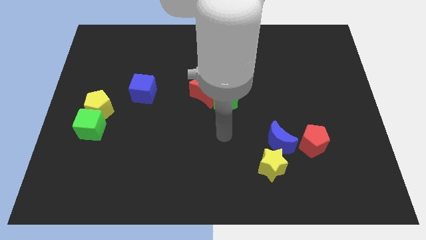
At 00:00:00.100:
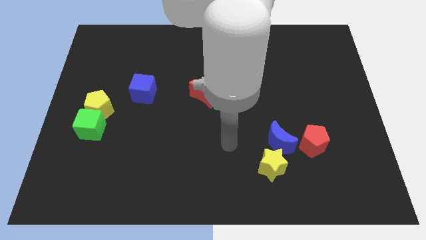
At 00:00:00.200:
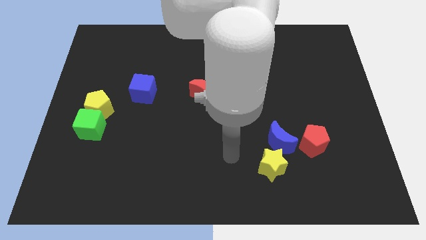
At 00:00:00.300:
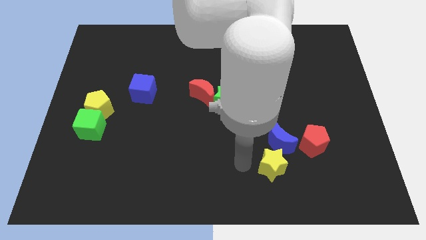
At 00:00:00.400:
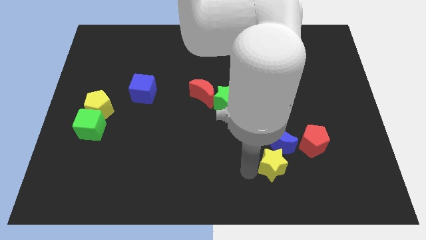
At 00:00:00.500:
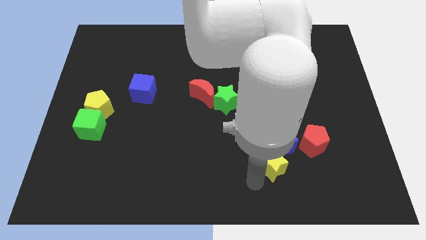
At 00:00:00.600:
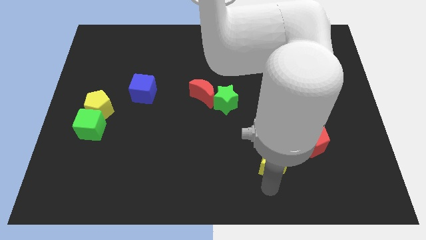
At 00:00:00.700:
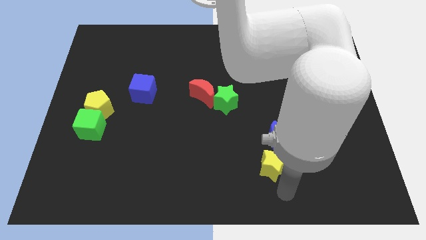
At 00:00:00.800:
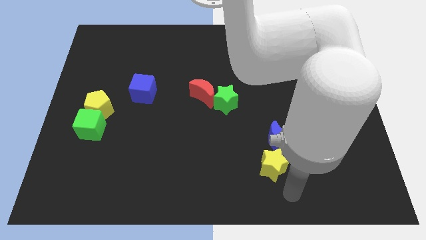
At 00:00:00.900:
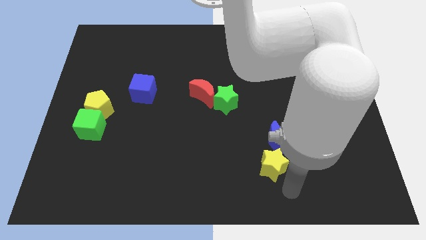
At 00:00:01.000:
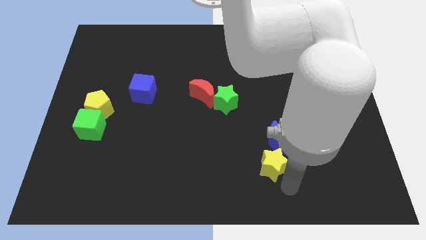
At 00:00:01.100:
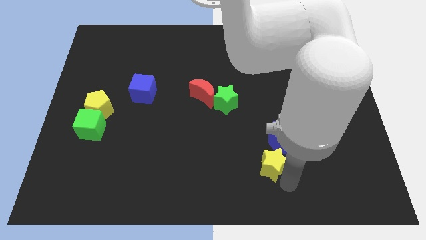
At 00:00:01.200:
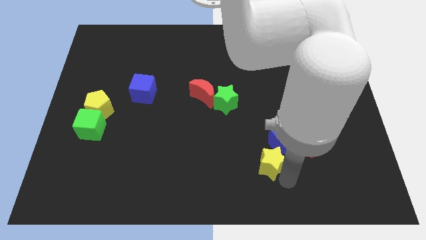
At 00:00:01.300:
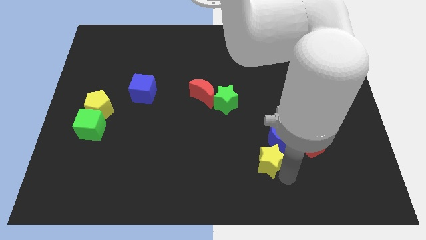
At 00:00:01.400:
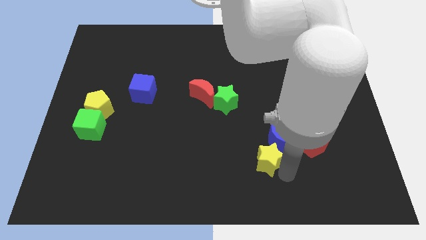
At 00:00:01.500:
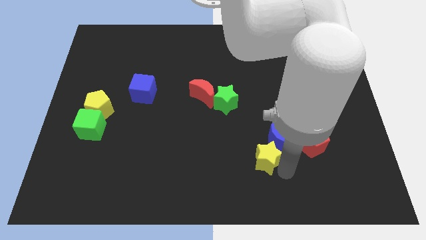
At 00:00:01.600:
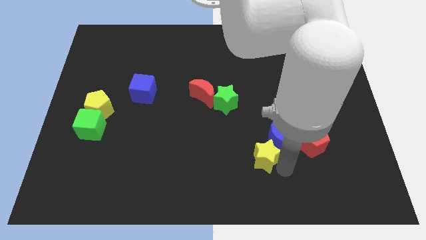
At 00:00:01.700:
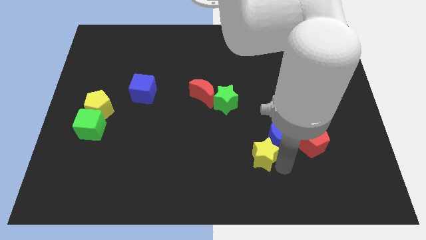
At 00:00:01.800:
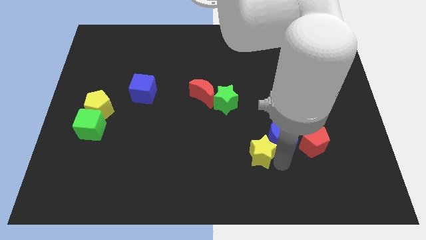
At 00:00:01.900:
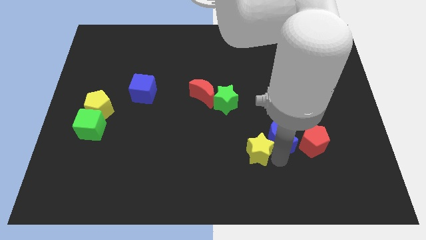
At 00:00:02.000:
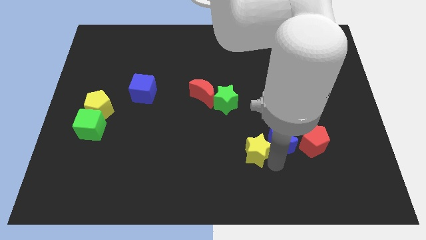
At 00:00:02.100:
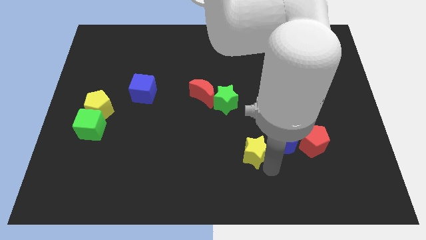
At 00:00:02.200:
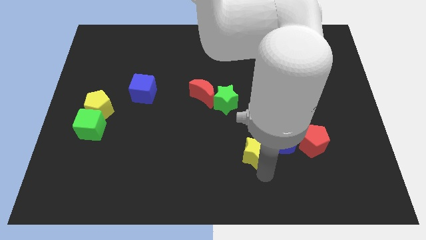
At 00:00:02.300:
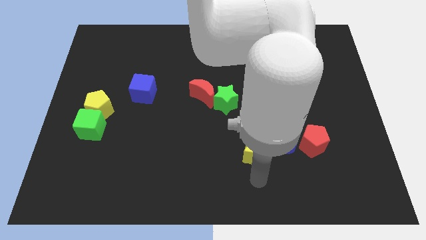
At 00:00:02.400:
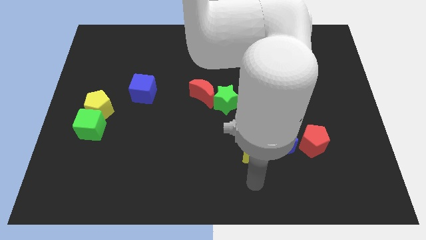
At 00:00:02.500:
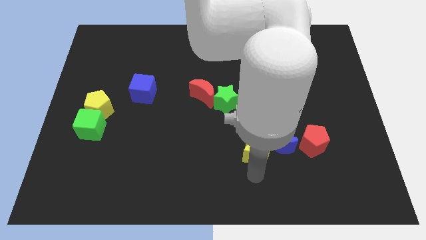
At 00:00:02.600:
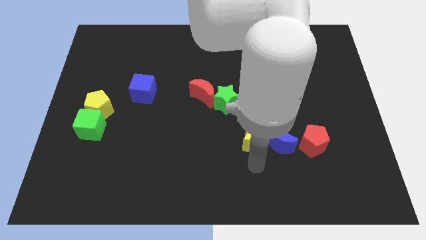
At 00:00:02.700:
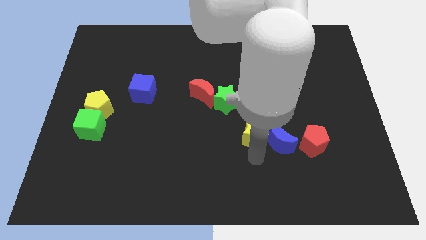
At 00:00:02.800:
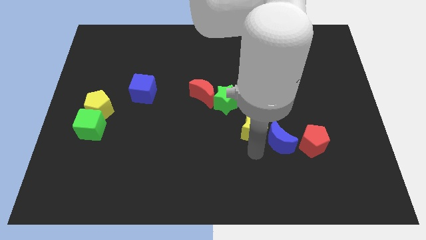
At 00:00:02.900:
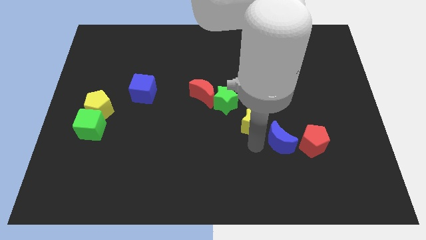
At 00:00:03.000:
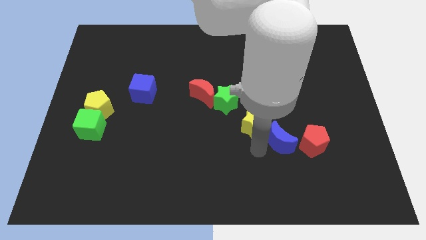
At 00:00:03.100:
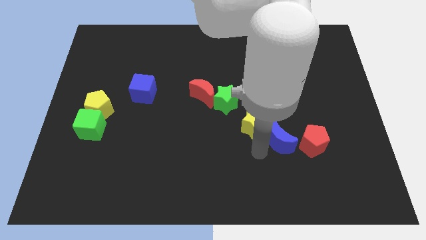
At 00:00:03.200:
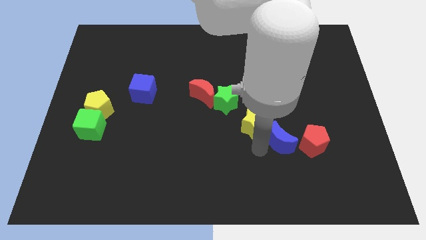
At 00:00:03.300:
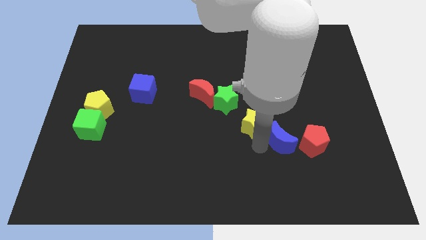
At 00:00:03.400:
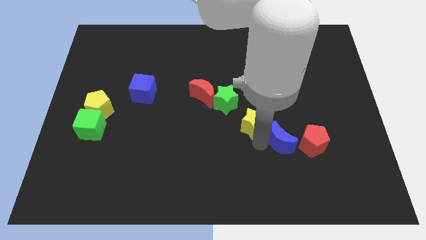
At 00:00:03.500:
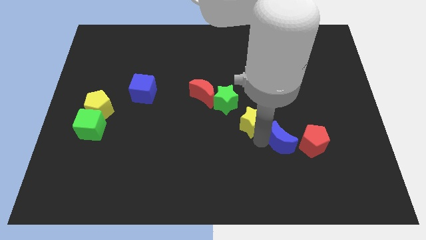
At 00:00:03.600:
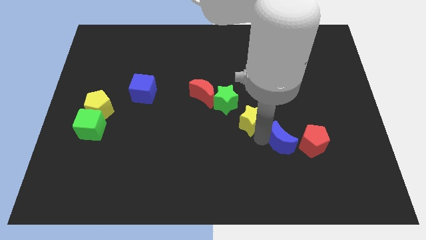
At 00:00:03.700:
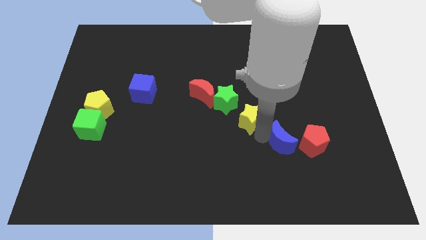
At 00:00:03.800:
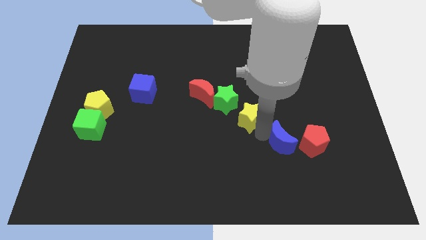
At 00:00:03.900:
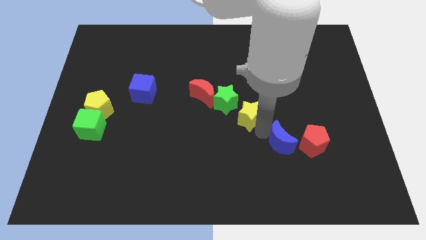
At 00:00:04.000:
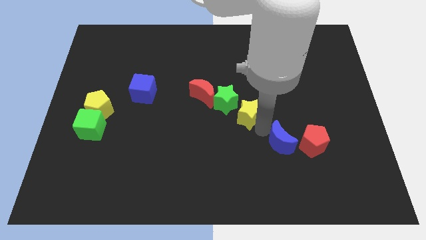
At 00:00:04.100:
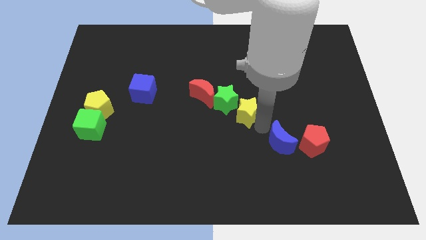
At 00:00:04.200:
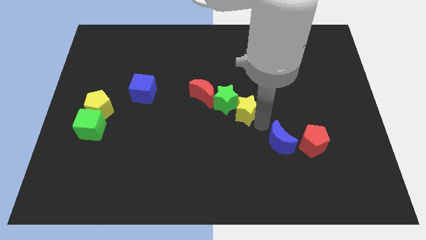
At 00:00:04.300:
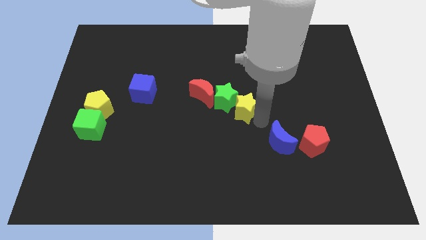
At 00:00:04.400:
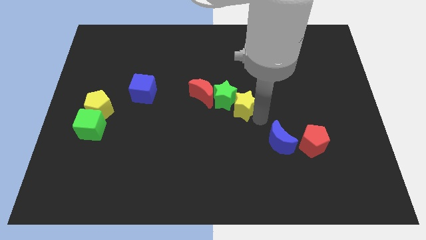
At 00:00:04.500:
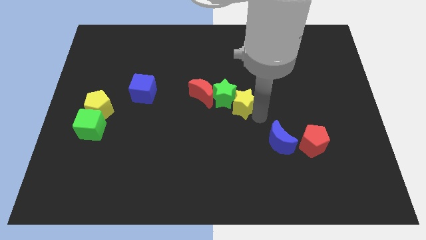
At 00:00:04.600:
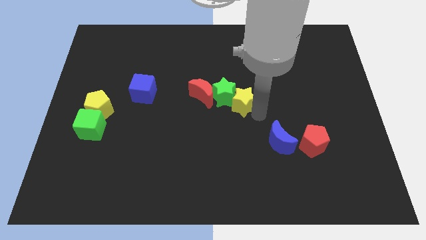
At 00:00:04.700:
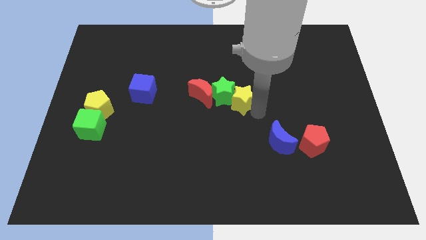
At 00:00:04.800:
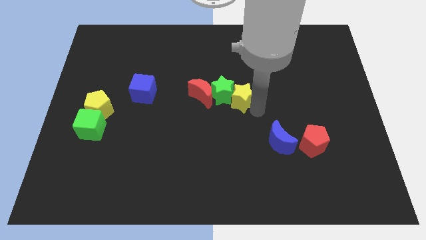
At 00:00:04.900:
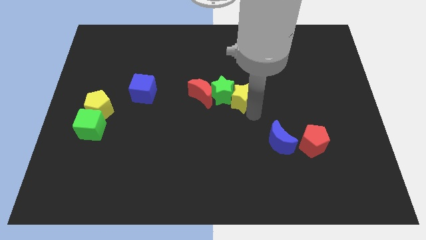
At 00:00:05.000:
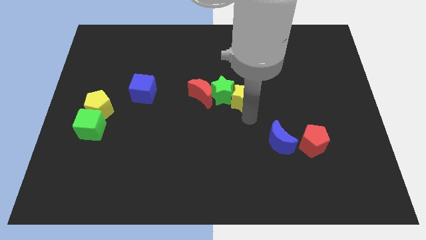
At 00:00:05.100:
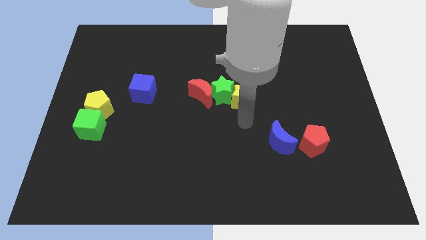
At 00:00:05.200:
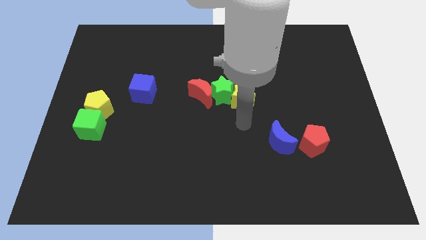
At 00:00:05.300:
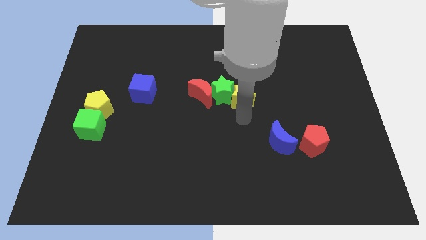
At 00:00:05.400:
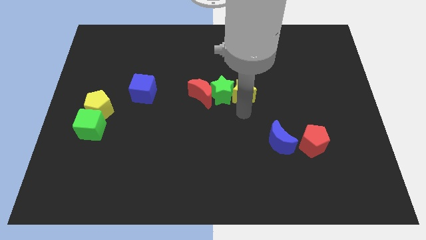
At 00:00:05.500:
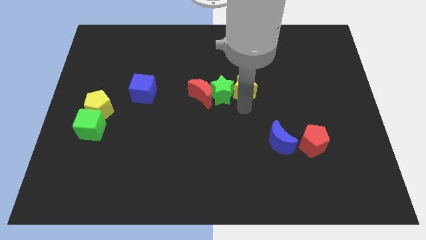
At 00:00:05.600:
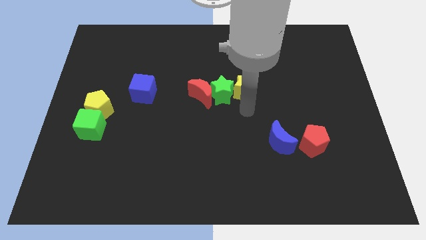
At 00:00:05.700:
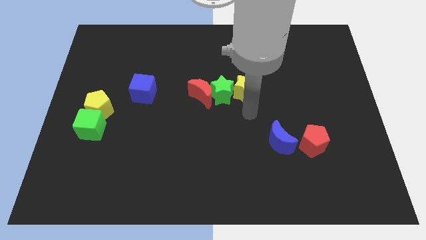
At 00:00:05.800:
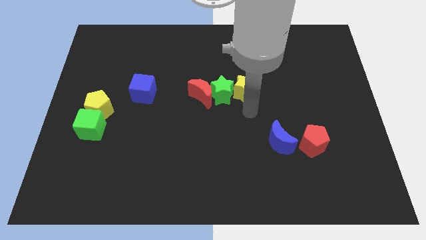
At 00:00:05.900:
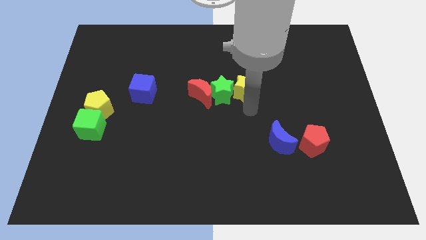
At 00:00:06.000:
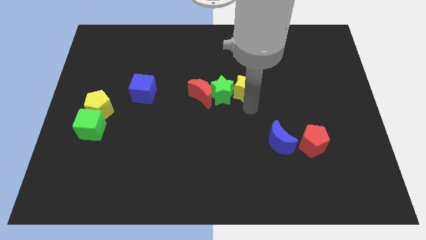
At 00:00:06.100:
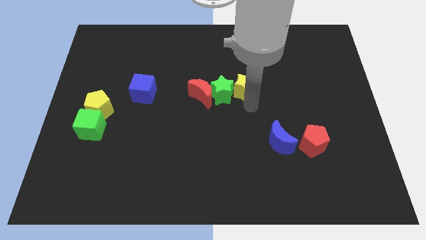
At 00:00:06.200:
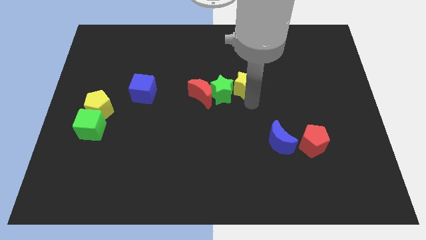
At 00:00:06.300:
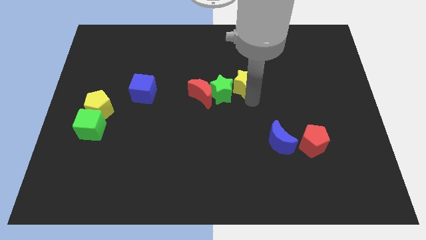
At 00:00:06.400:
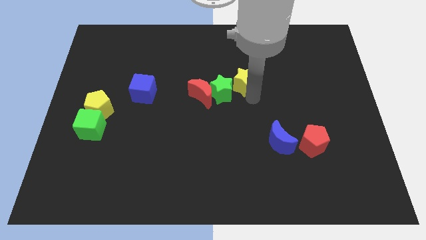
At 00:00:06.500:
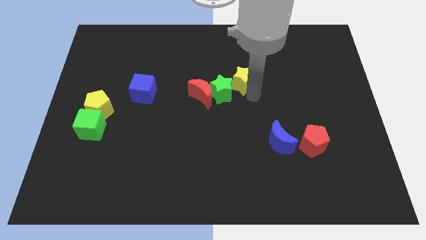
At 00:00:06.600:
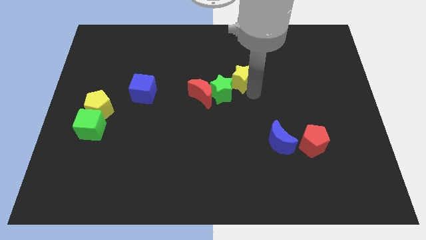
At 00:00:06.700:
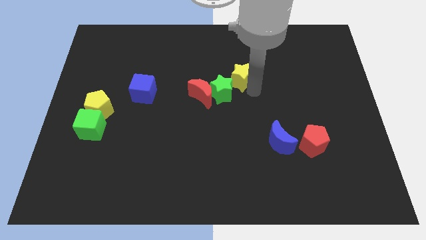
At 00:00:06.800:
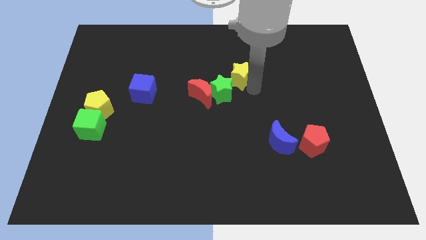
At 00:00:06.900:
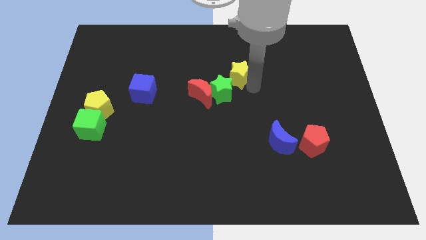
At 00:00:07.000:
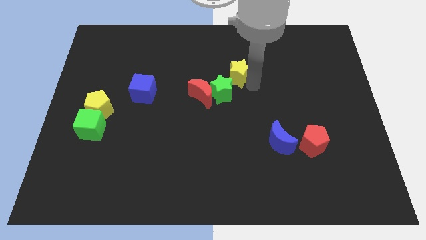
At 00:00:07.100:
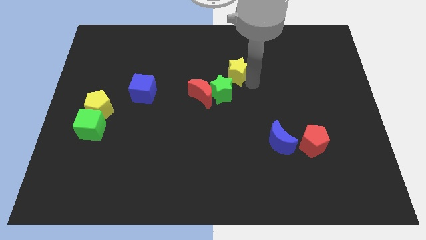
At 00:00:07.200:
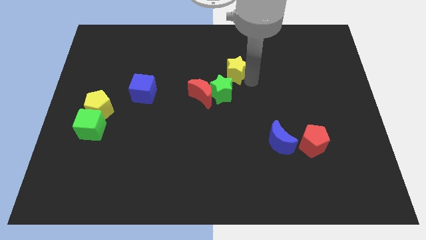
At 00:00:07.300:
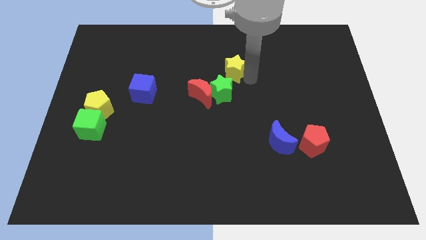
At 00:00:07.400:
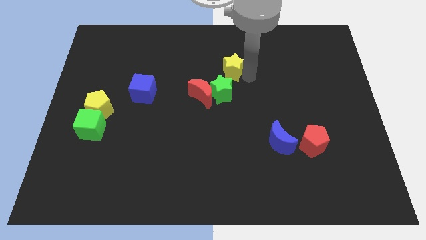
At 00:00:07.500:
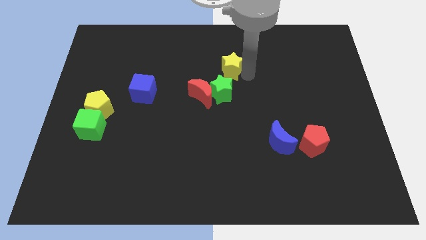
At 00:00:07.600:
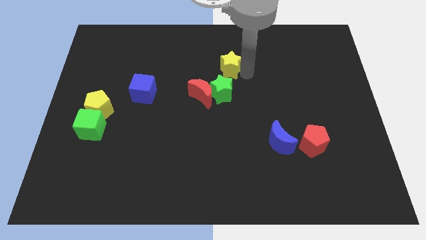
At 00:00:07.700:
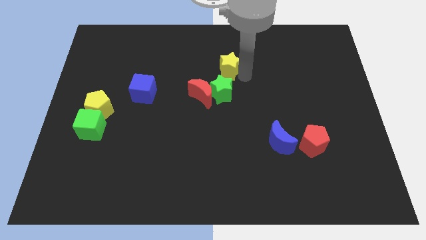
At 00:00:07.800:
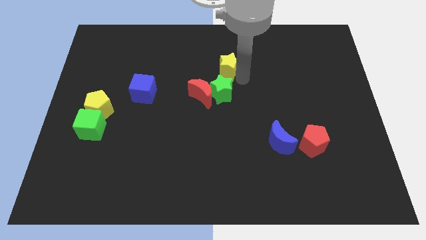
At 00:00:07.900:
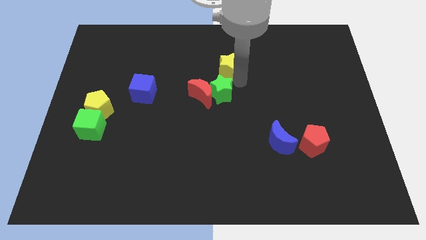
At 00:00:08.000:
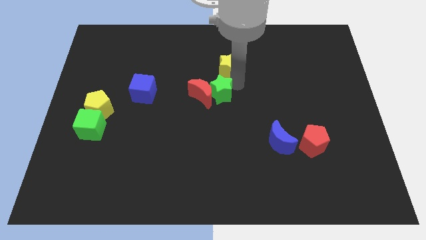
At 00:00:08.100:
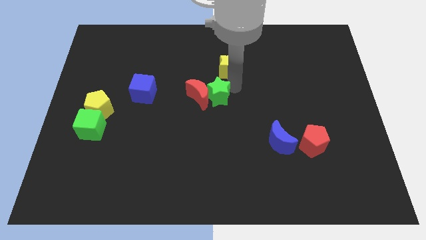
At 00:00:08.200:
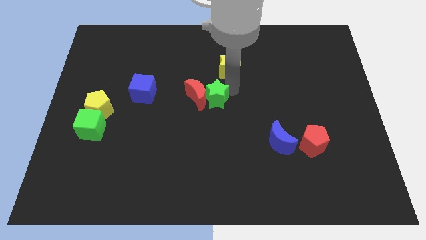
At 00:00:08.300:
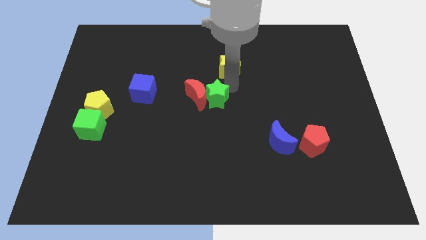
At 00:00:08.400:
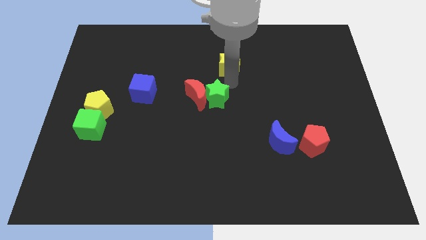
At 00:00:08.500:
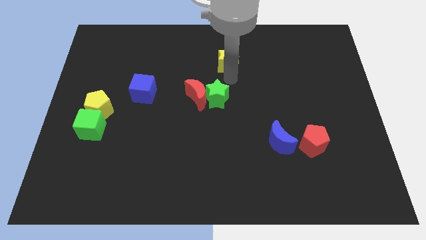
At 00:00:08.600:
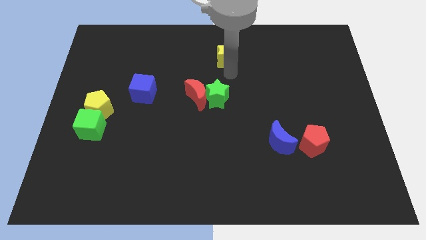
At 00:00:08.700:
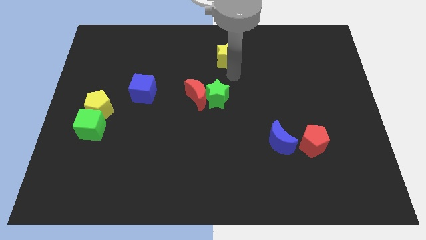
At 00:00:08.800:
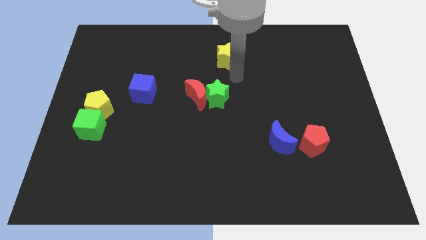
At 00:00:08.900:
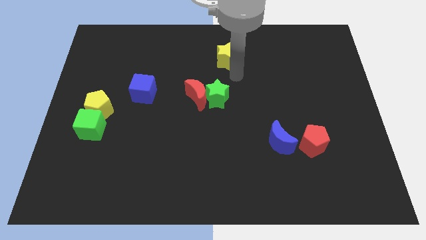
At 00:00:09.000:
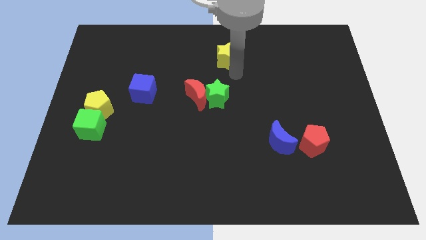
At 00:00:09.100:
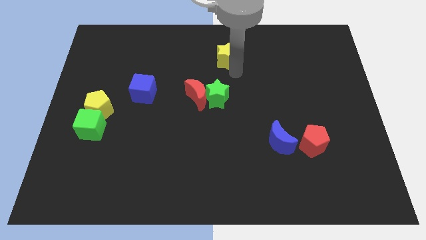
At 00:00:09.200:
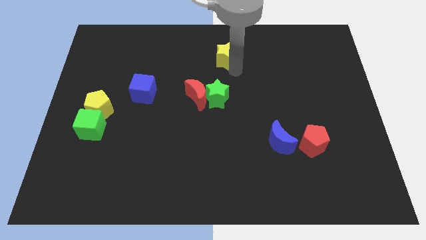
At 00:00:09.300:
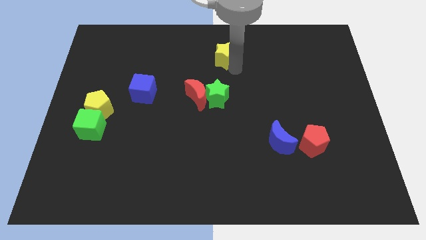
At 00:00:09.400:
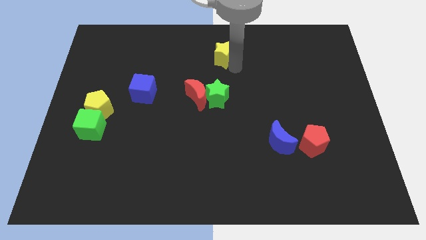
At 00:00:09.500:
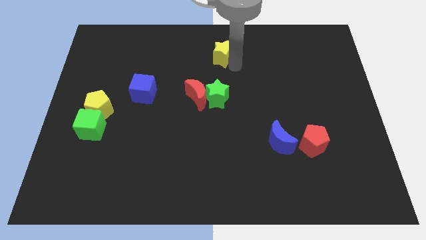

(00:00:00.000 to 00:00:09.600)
put the yellow star to the towards your base
